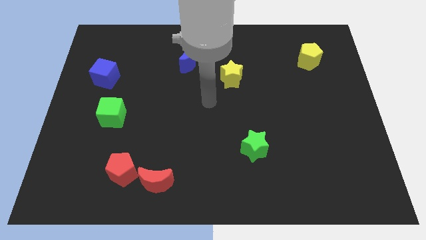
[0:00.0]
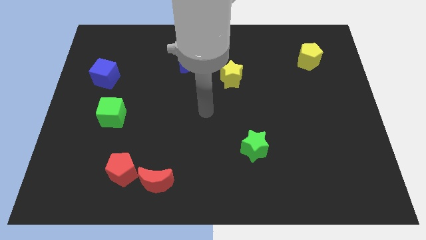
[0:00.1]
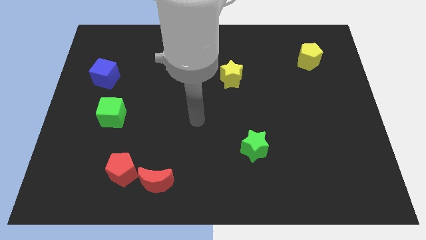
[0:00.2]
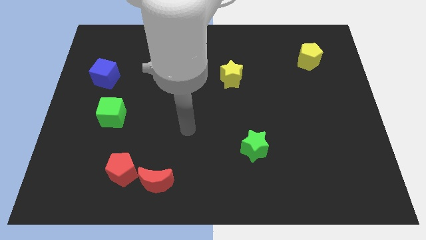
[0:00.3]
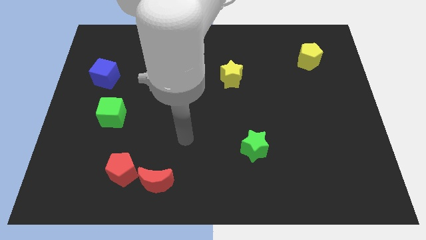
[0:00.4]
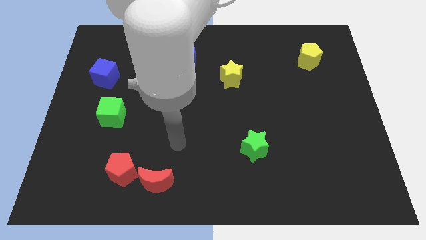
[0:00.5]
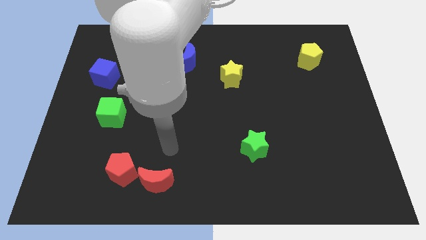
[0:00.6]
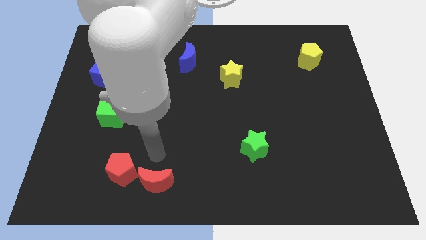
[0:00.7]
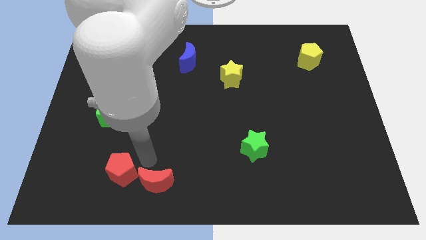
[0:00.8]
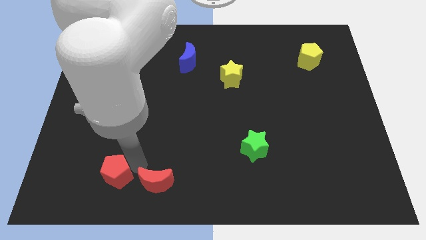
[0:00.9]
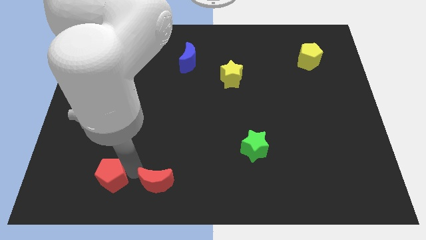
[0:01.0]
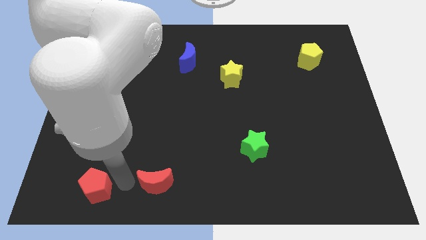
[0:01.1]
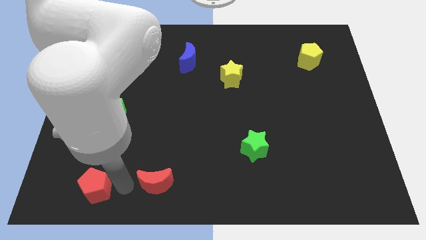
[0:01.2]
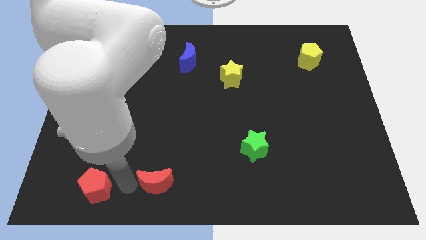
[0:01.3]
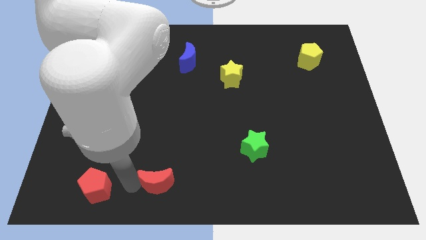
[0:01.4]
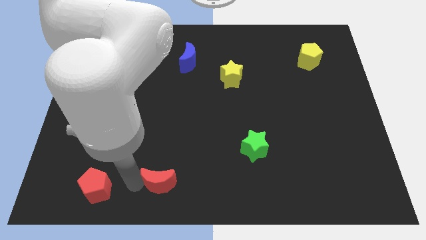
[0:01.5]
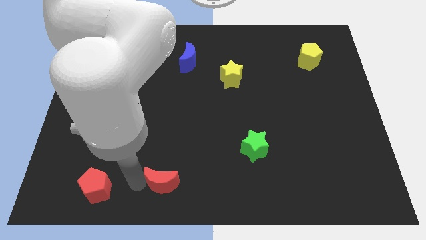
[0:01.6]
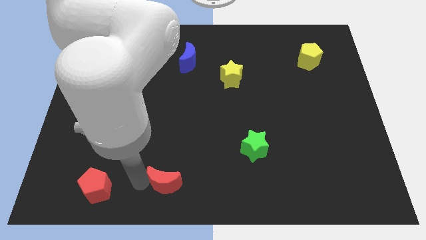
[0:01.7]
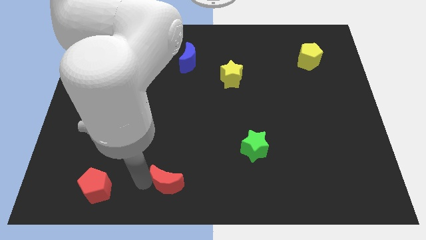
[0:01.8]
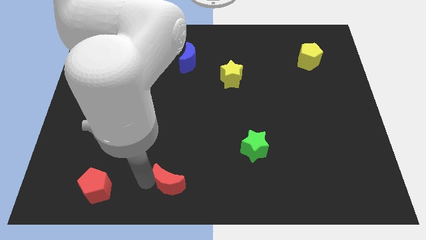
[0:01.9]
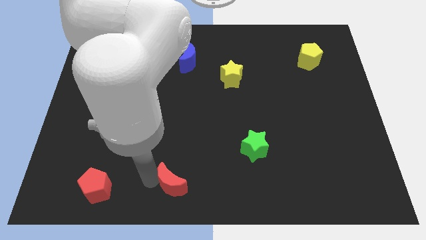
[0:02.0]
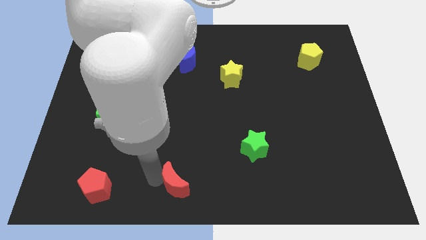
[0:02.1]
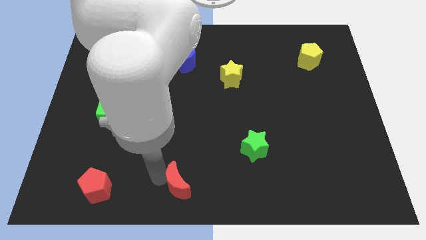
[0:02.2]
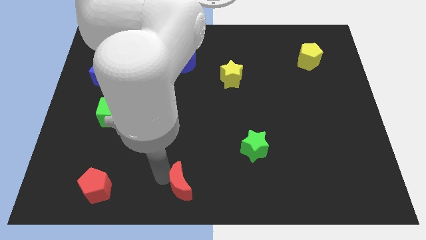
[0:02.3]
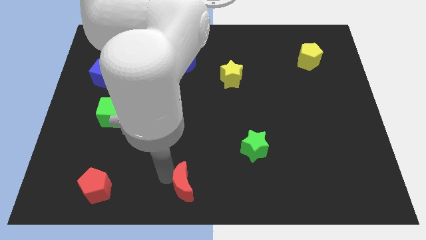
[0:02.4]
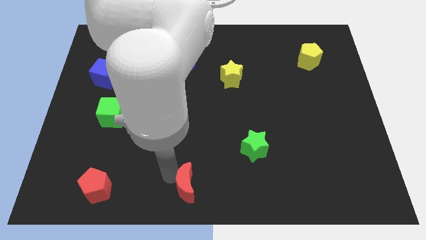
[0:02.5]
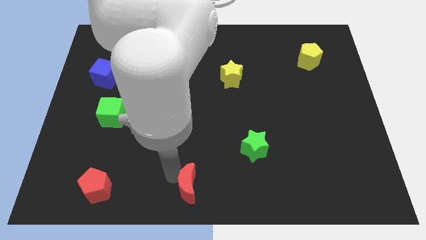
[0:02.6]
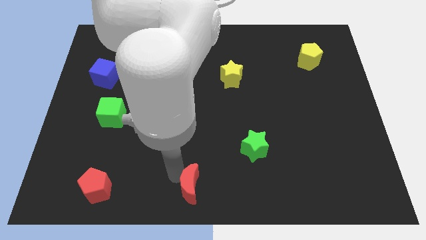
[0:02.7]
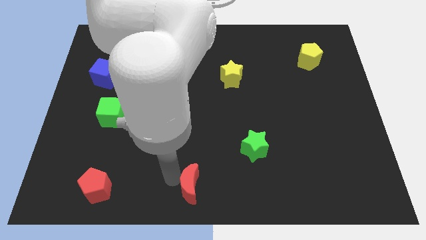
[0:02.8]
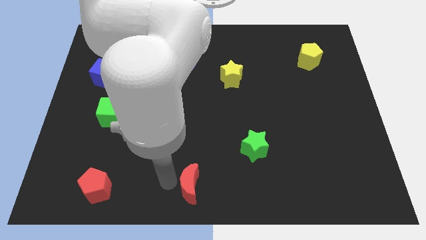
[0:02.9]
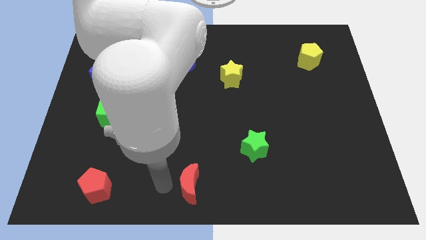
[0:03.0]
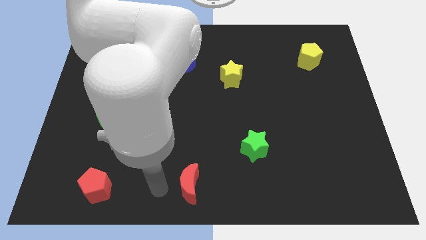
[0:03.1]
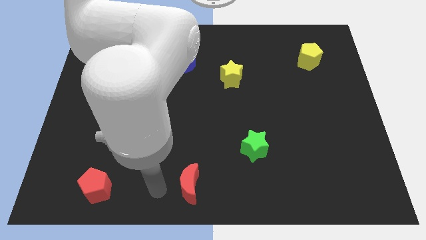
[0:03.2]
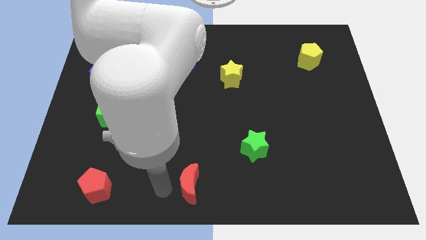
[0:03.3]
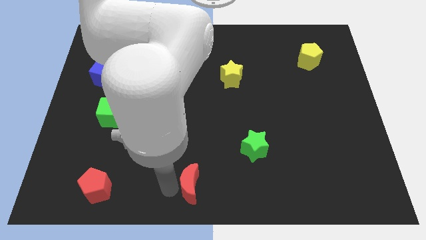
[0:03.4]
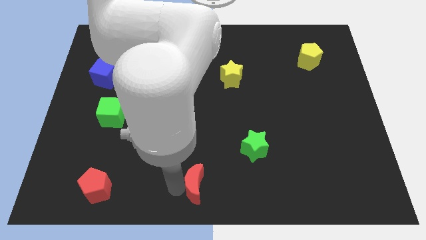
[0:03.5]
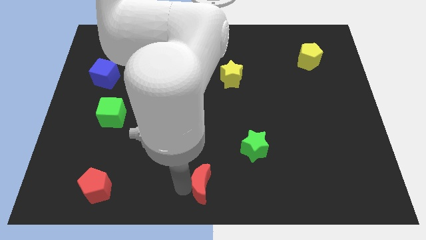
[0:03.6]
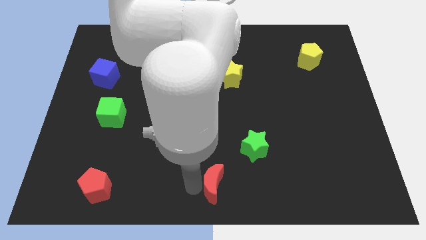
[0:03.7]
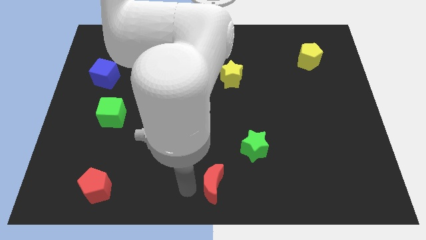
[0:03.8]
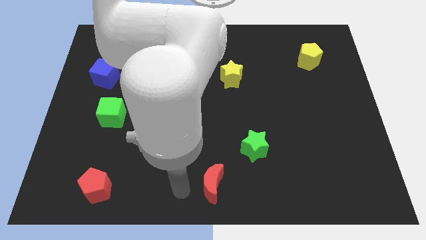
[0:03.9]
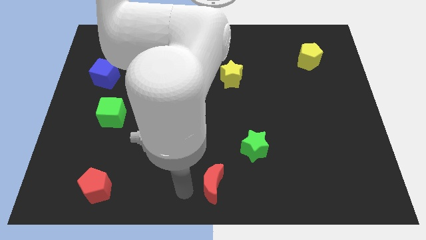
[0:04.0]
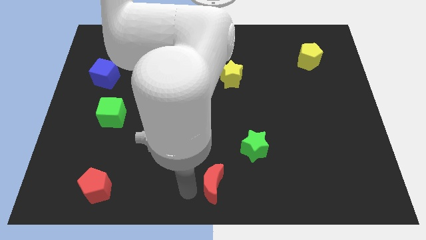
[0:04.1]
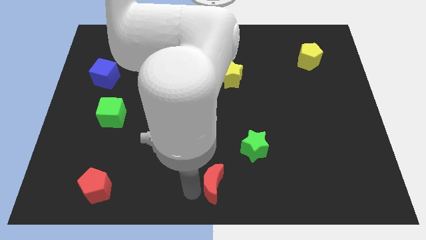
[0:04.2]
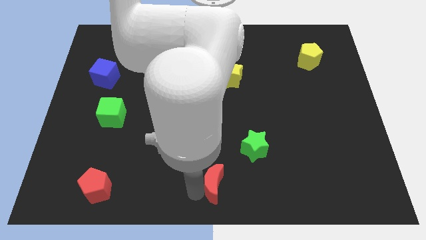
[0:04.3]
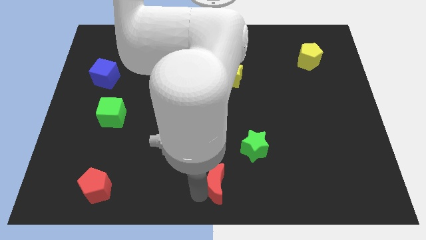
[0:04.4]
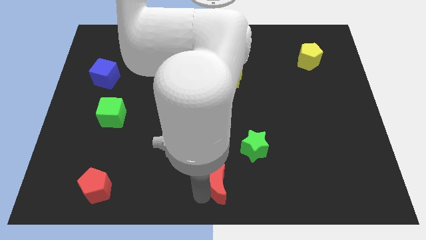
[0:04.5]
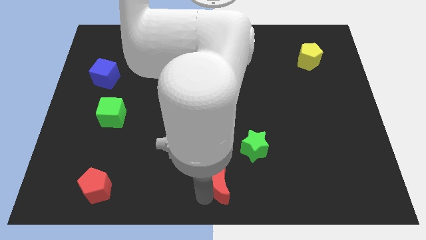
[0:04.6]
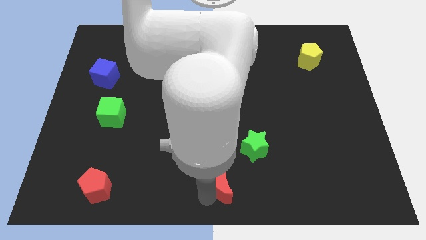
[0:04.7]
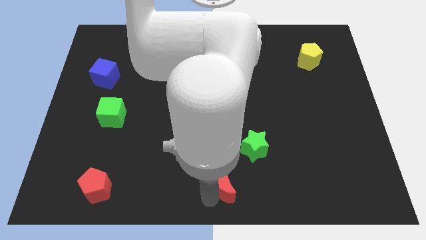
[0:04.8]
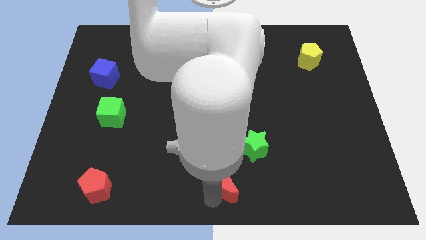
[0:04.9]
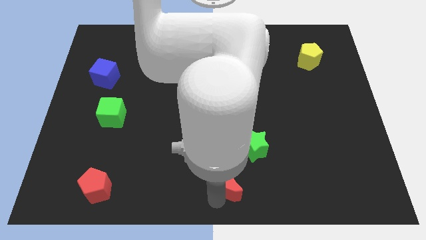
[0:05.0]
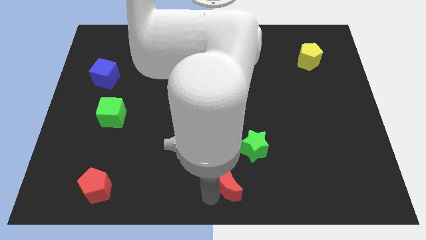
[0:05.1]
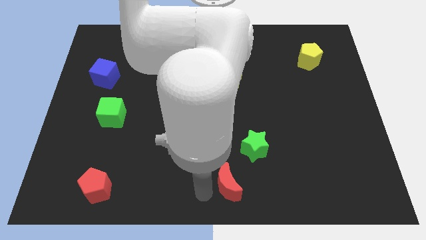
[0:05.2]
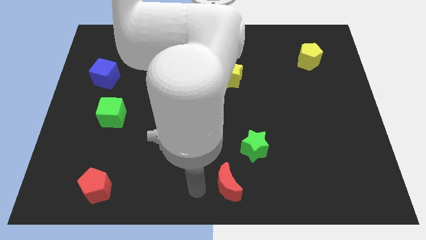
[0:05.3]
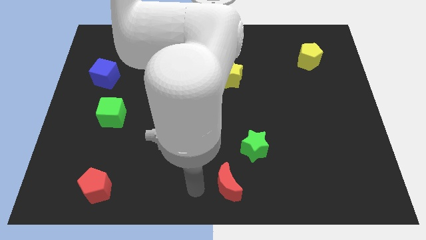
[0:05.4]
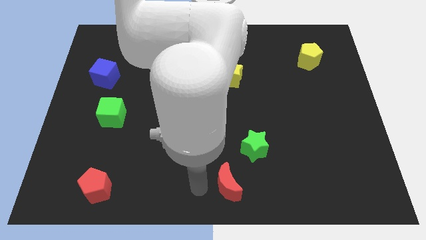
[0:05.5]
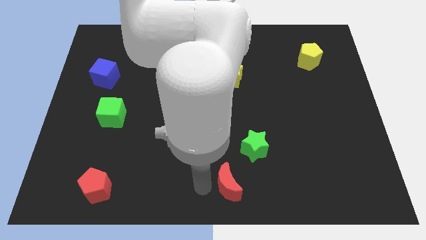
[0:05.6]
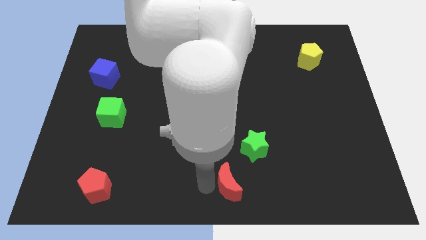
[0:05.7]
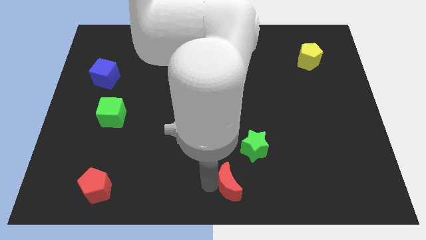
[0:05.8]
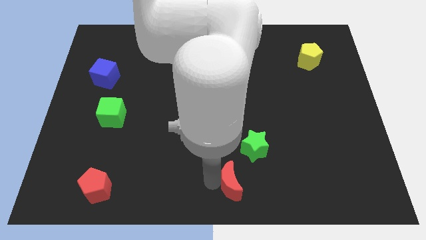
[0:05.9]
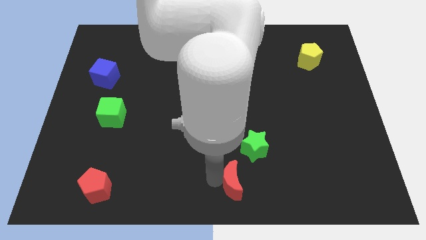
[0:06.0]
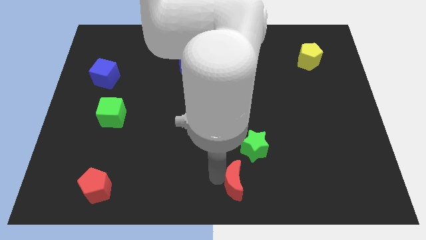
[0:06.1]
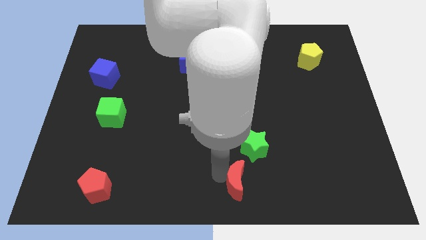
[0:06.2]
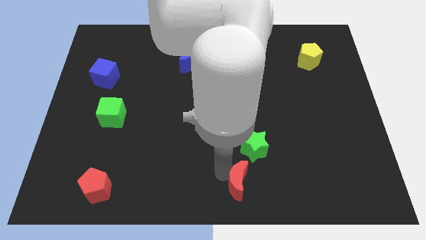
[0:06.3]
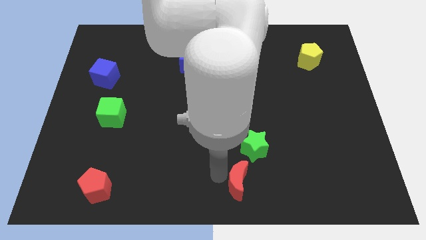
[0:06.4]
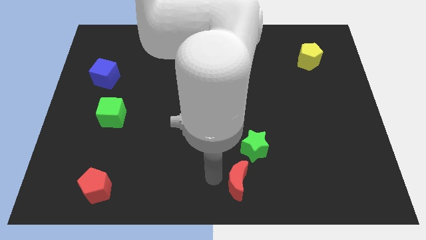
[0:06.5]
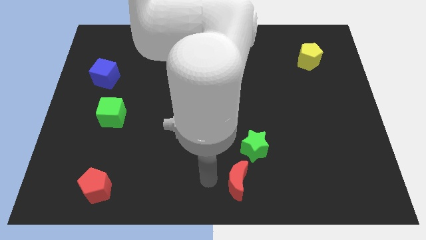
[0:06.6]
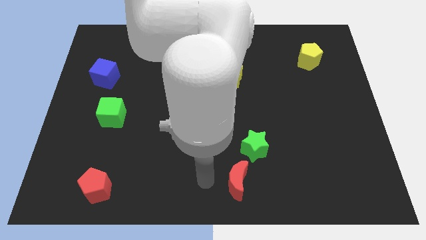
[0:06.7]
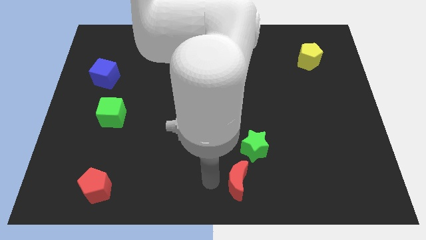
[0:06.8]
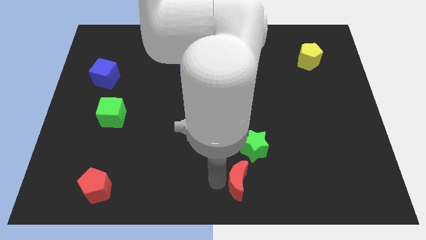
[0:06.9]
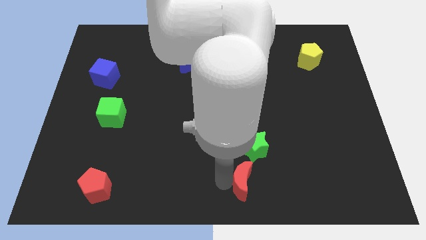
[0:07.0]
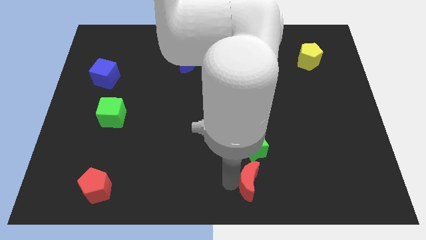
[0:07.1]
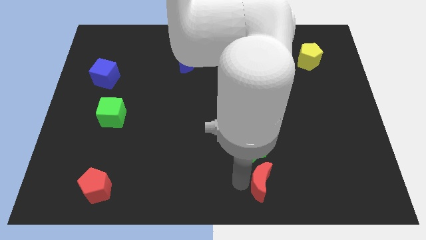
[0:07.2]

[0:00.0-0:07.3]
move the red moon to the right

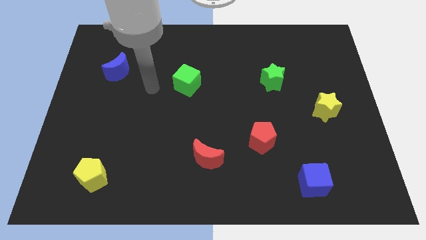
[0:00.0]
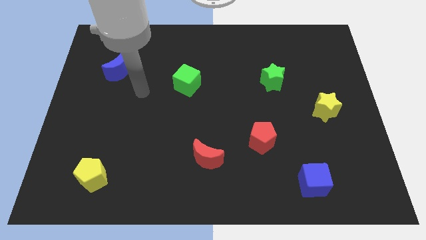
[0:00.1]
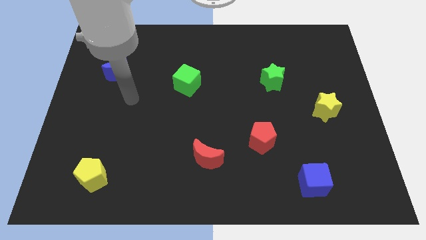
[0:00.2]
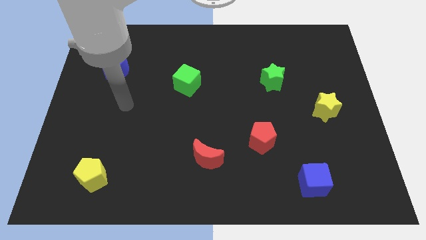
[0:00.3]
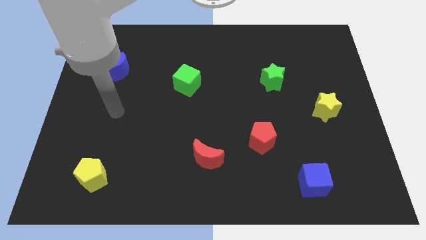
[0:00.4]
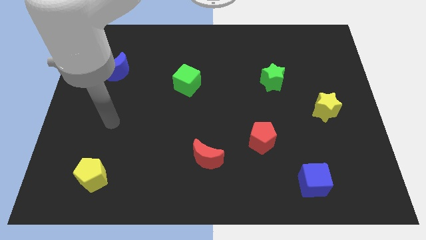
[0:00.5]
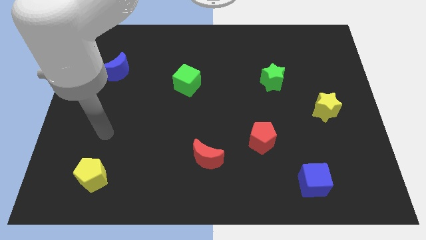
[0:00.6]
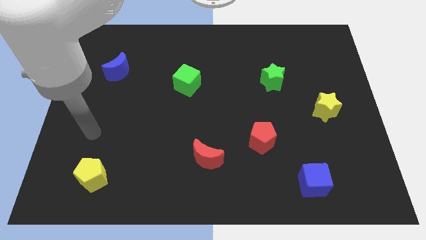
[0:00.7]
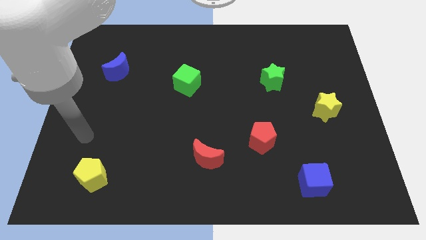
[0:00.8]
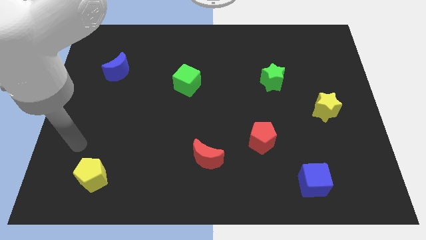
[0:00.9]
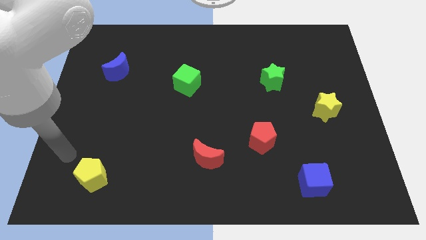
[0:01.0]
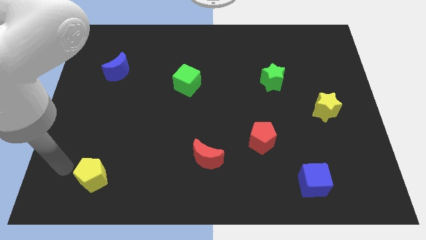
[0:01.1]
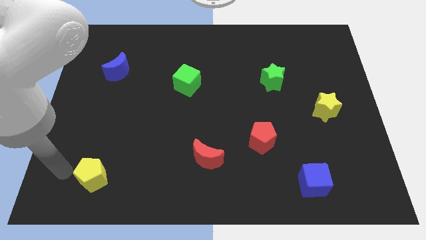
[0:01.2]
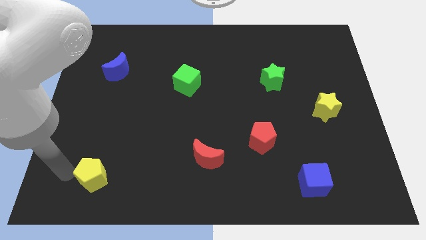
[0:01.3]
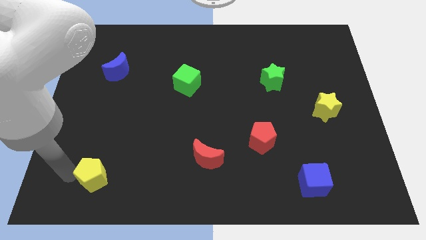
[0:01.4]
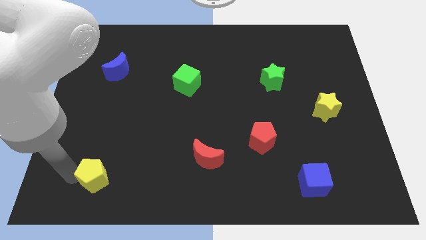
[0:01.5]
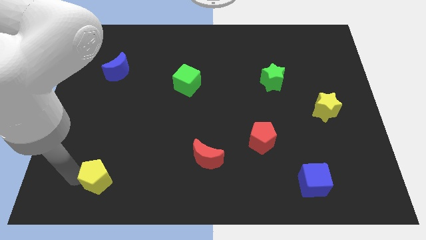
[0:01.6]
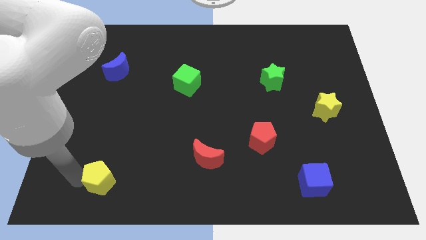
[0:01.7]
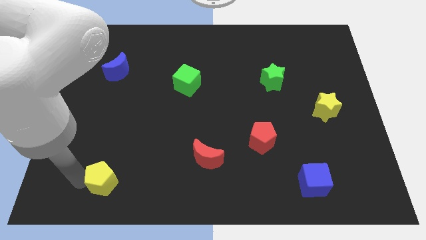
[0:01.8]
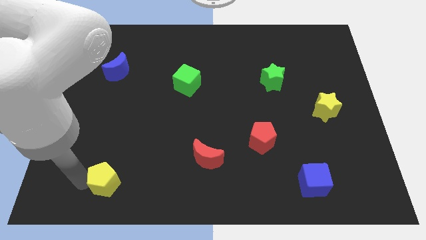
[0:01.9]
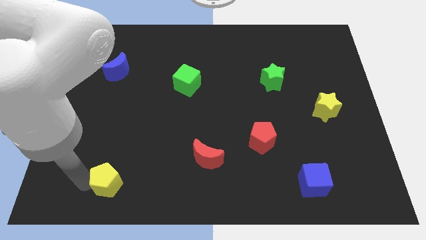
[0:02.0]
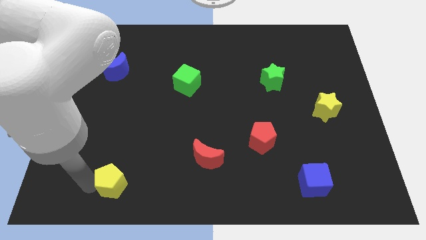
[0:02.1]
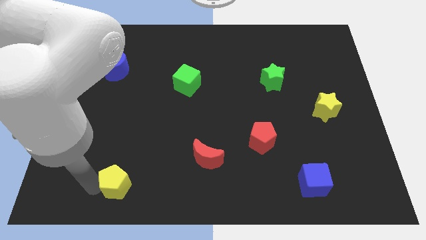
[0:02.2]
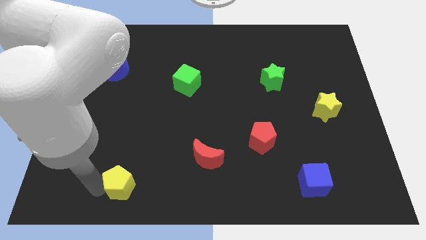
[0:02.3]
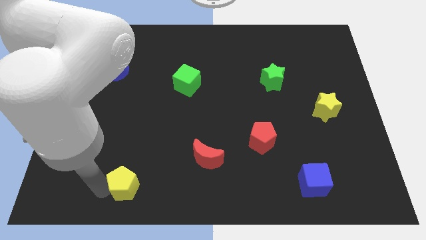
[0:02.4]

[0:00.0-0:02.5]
slightly move the yellow pentagon right
